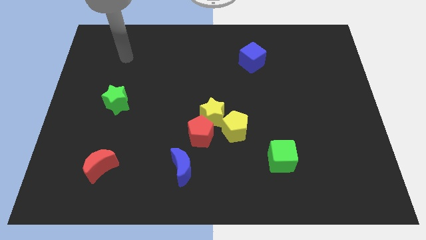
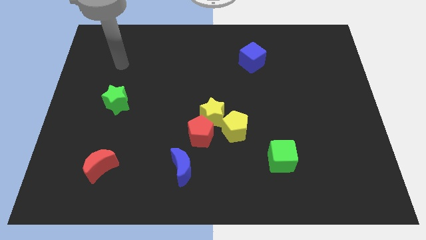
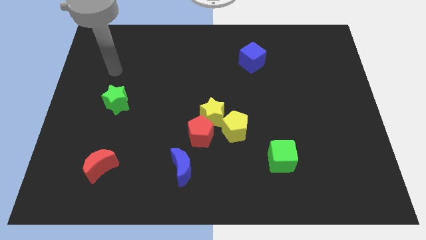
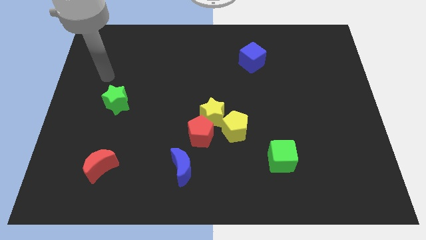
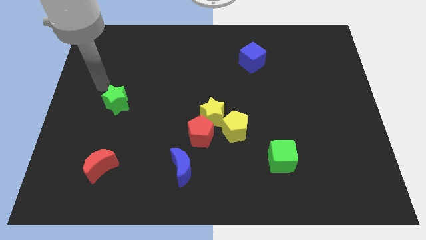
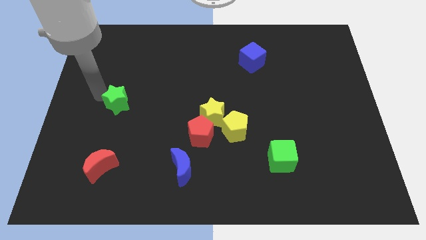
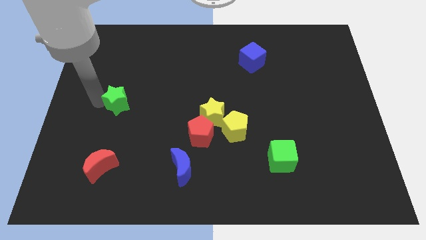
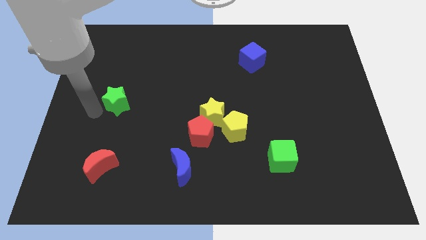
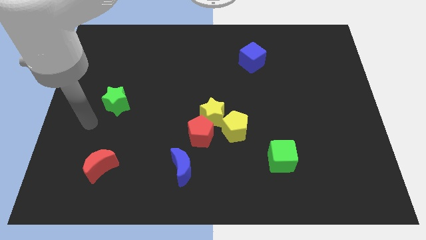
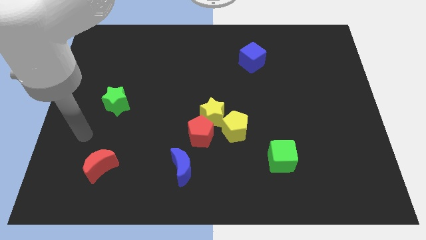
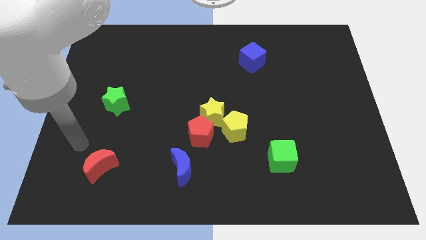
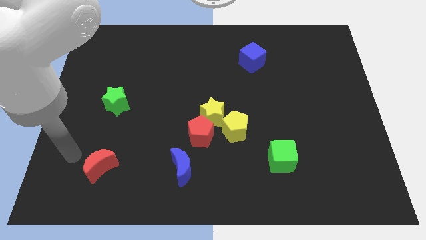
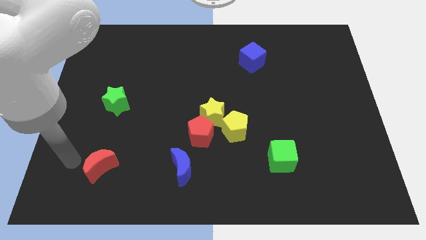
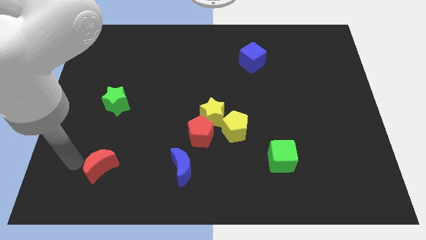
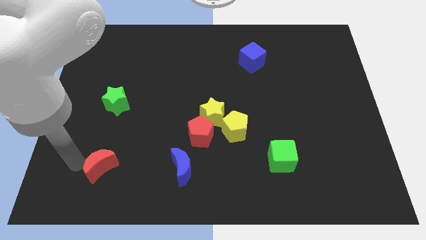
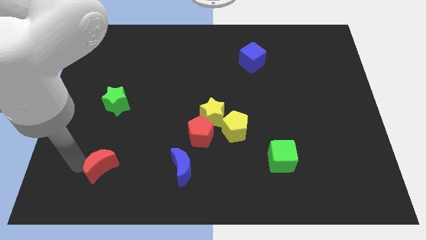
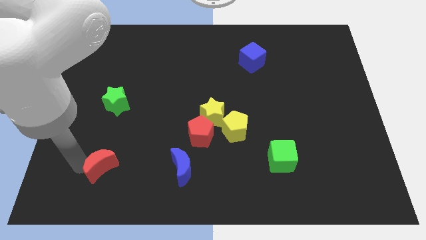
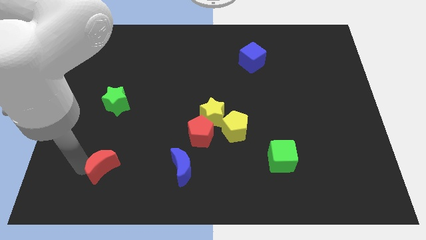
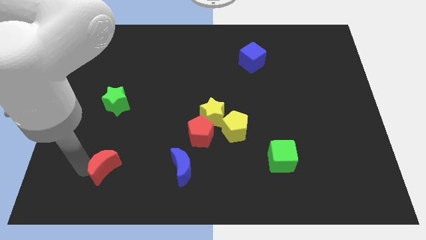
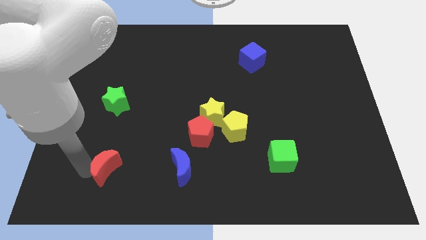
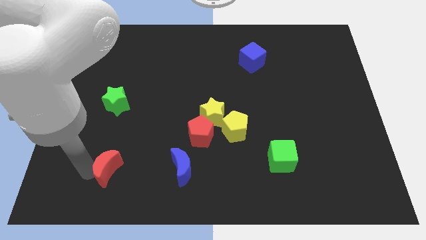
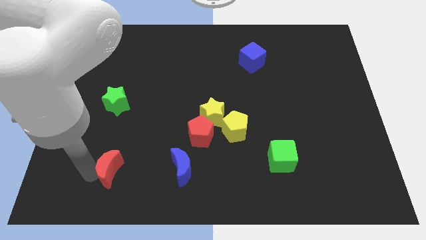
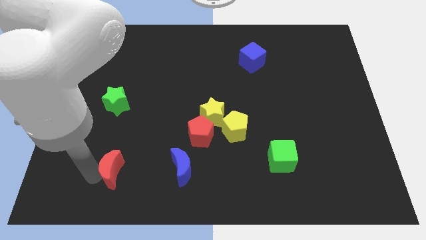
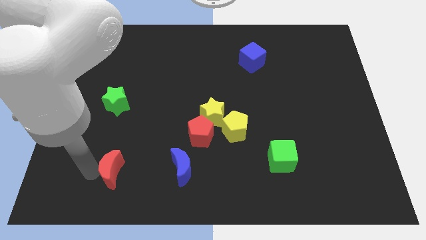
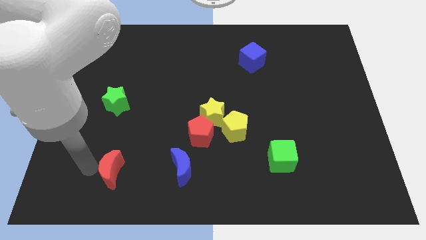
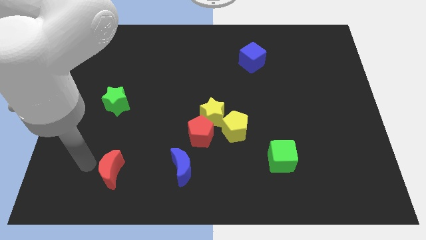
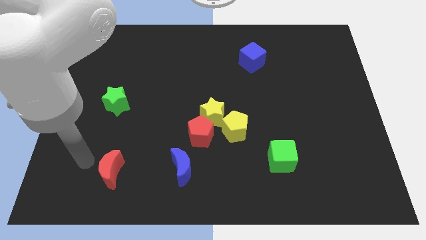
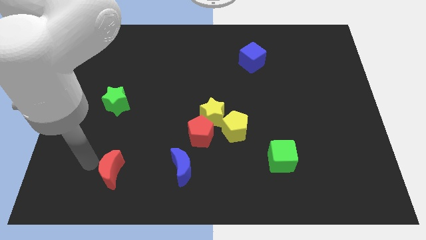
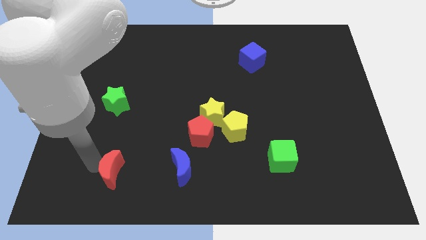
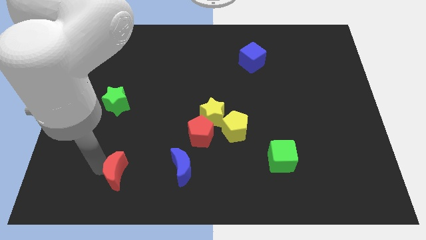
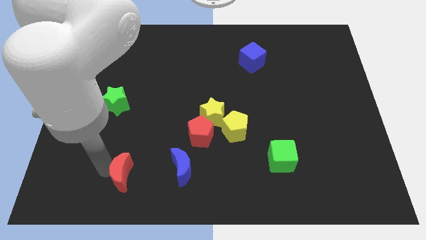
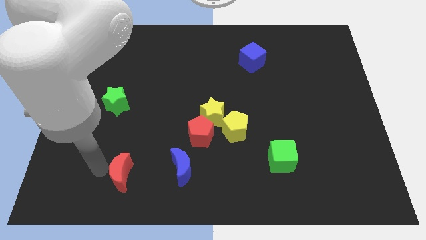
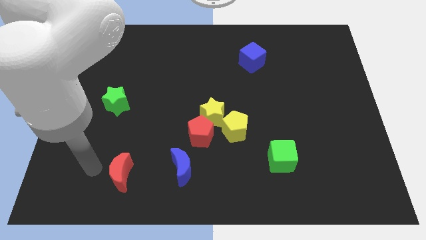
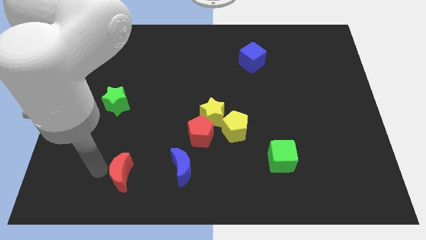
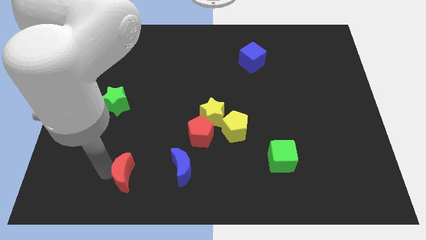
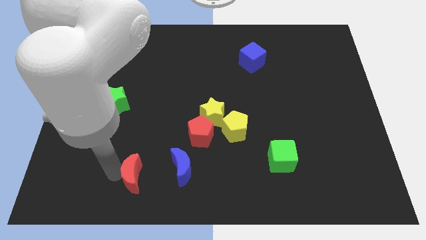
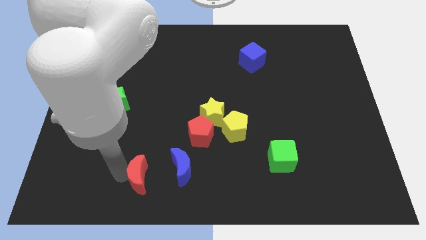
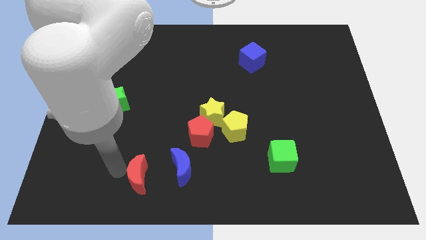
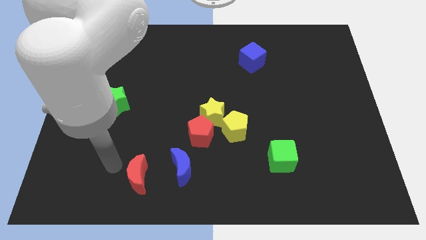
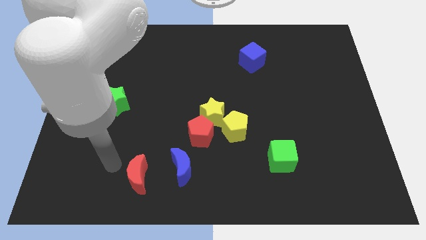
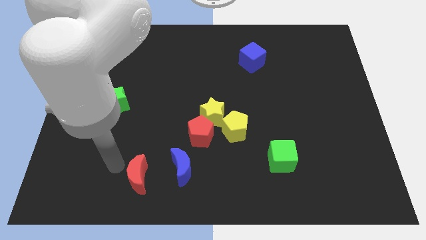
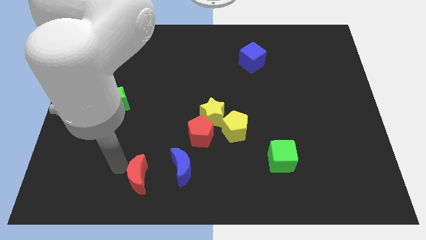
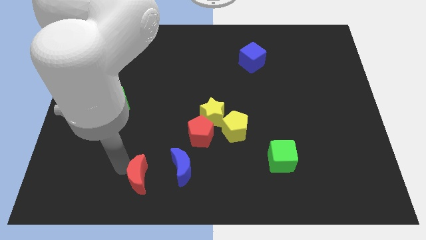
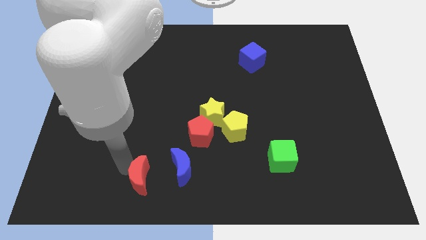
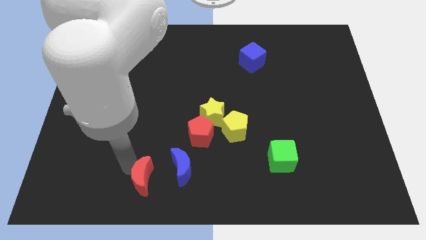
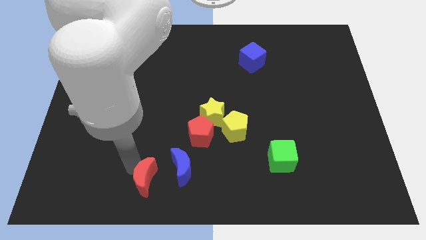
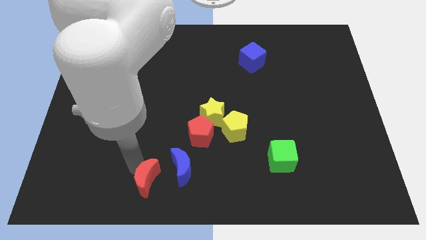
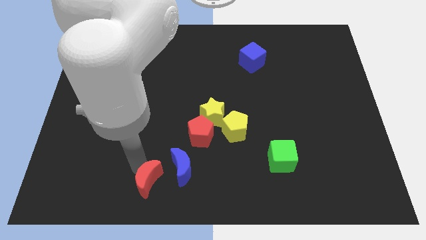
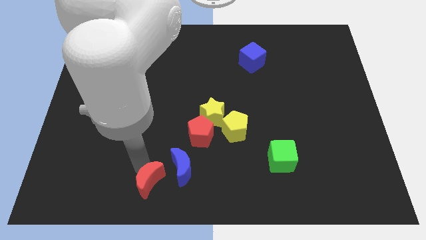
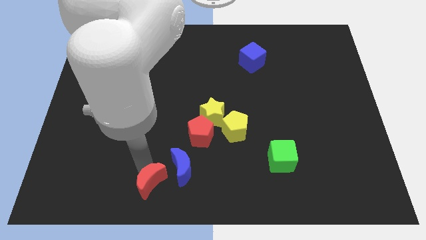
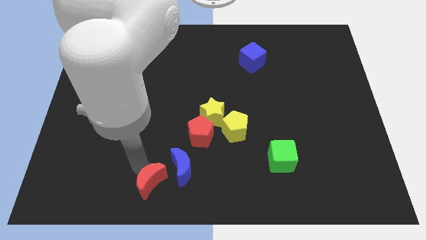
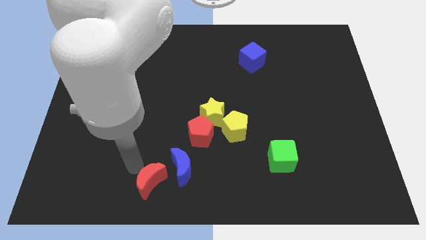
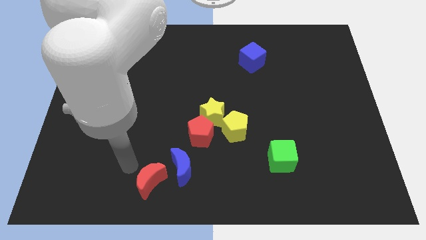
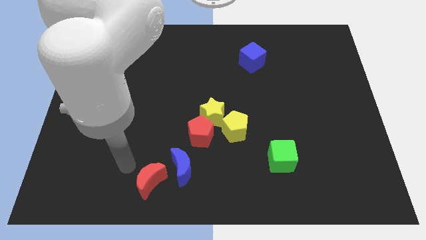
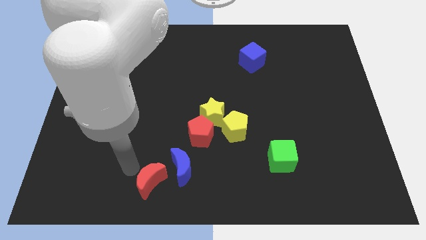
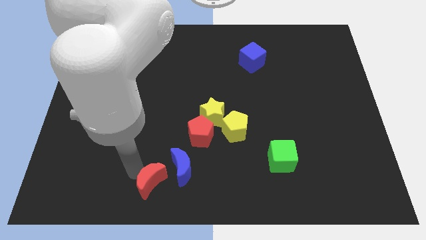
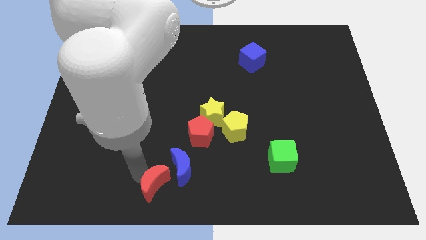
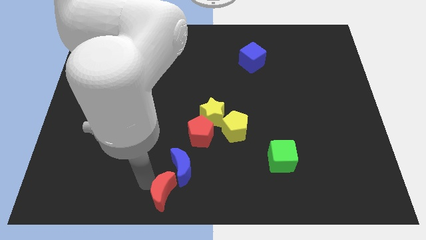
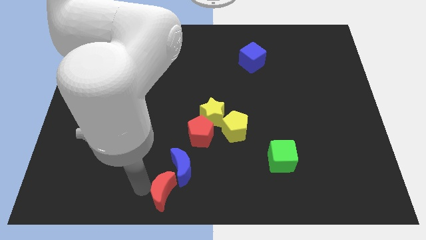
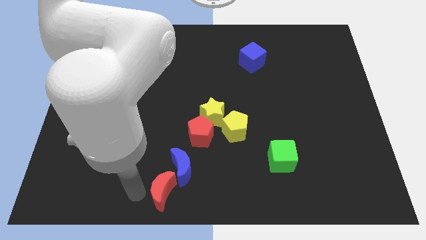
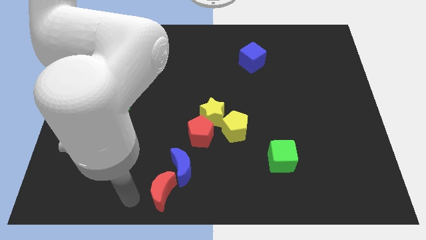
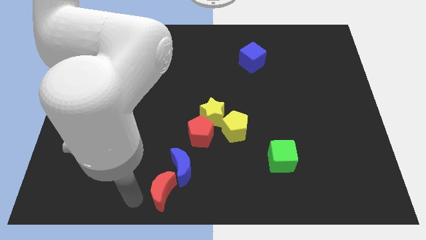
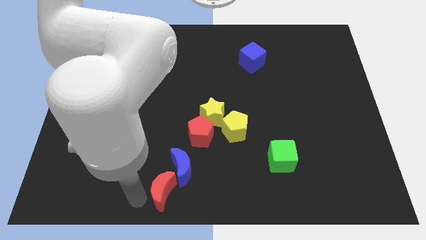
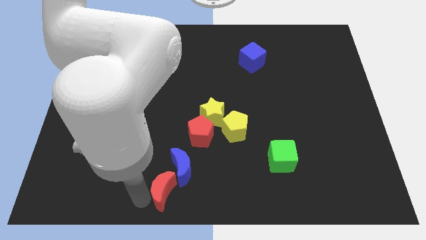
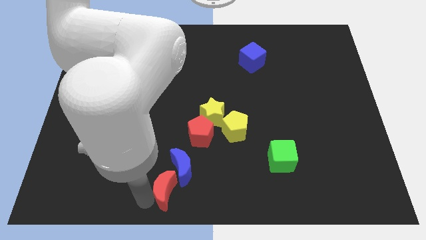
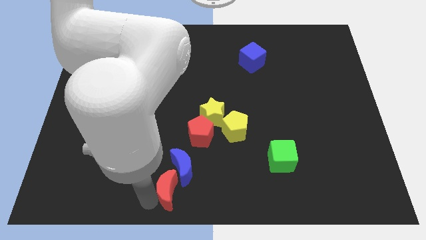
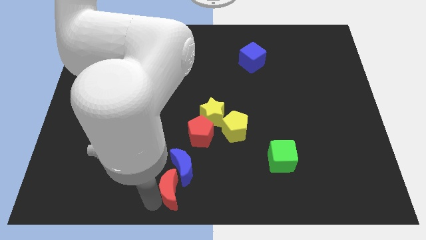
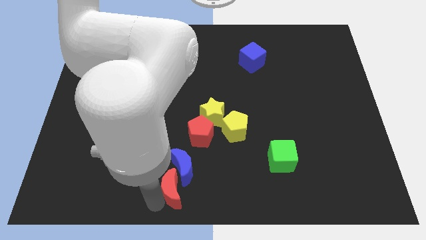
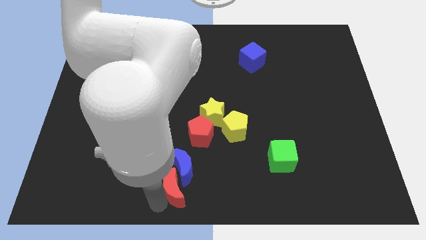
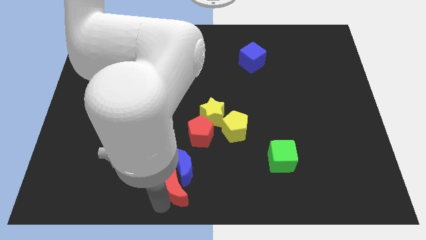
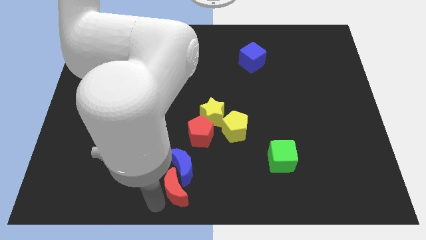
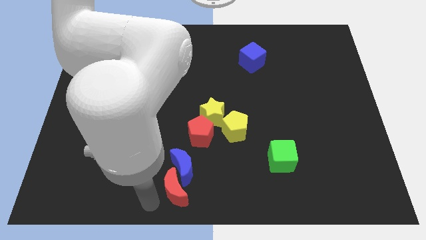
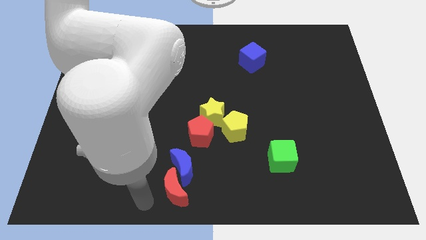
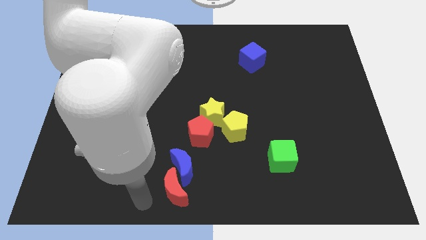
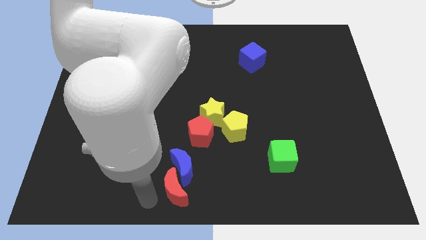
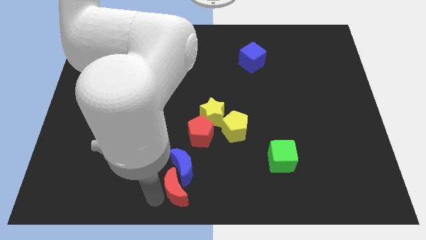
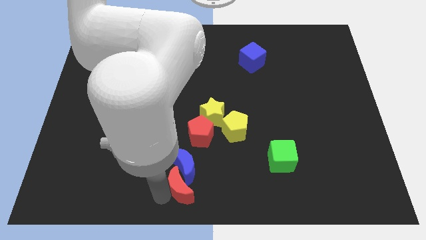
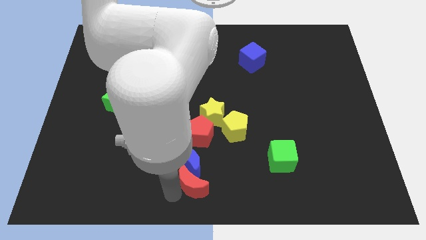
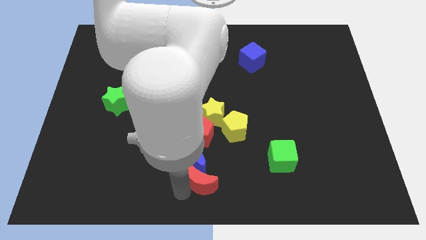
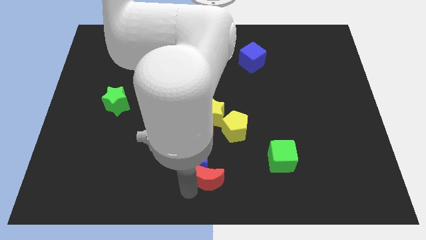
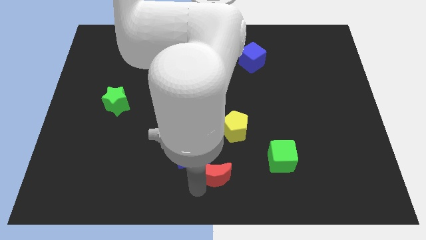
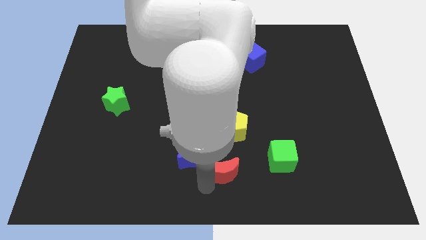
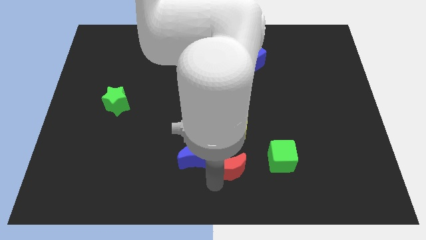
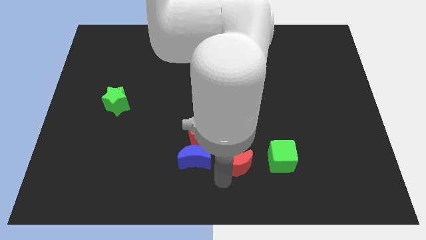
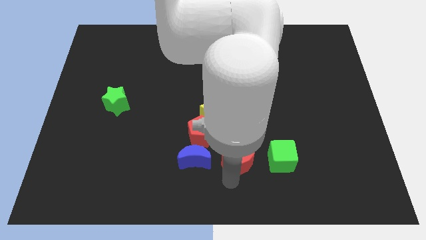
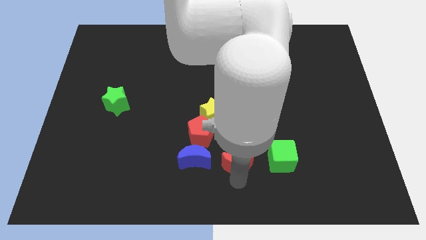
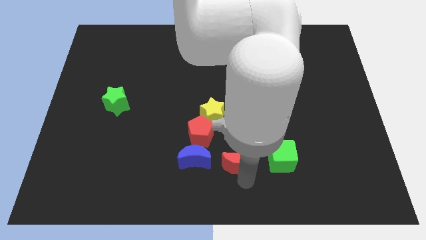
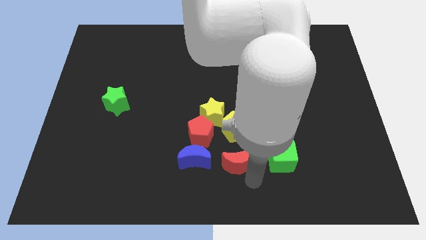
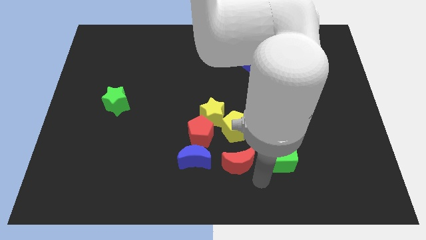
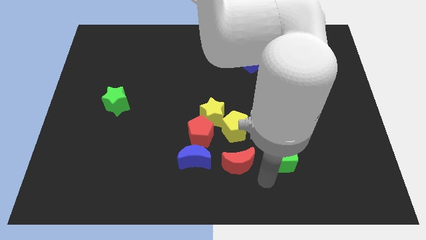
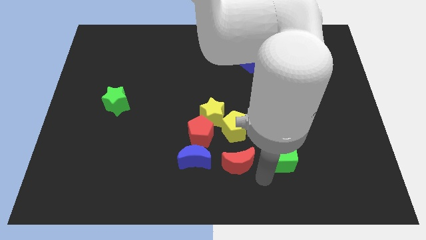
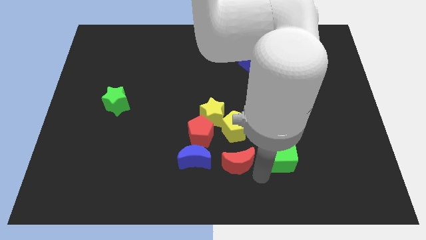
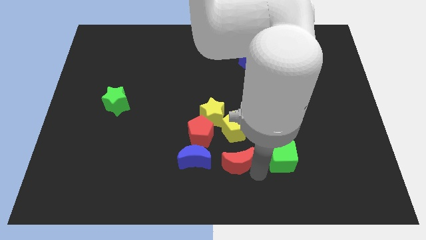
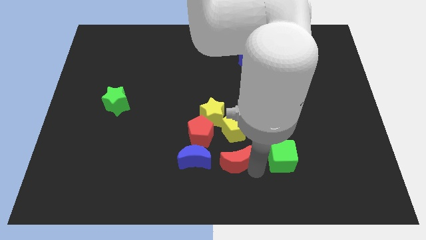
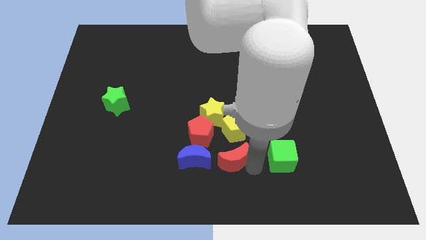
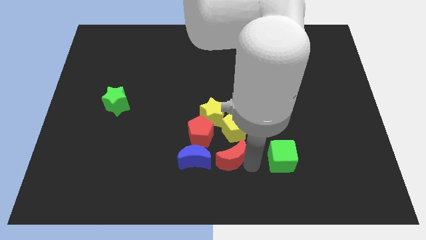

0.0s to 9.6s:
slide the red moon to the bottom left side of the yellow pentagon
